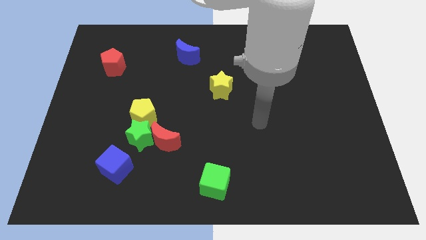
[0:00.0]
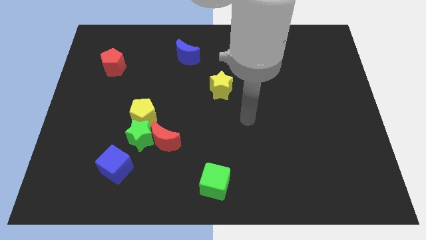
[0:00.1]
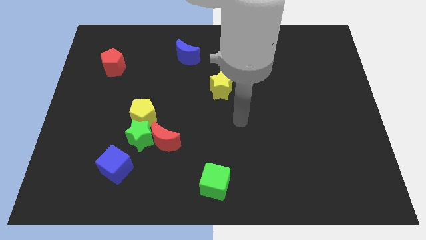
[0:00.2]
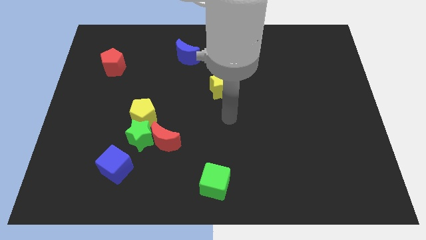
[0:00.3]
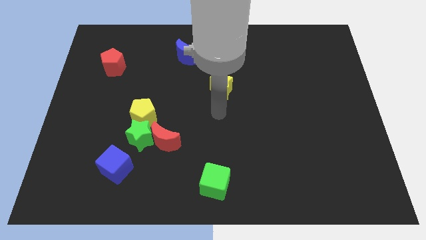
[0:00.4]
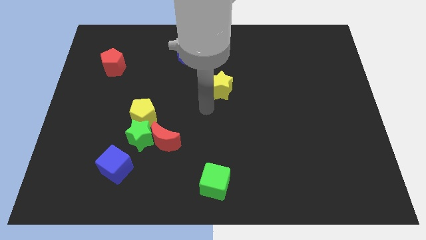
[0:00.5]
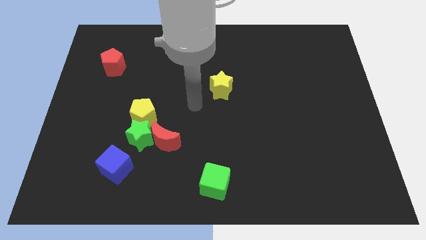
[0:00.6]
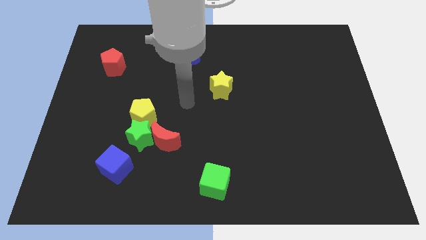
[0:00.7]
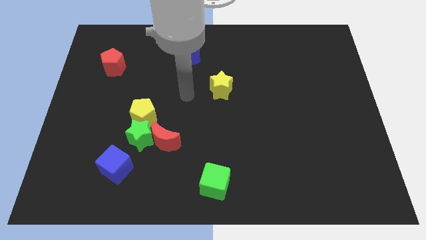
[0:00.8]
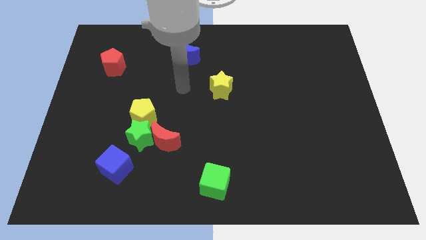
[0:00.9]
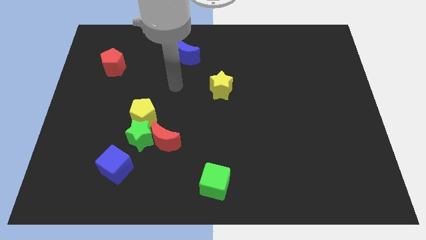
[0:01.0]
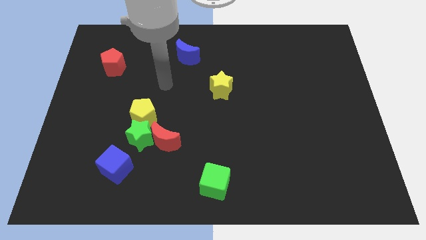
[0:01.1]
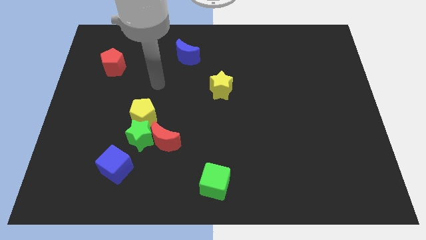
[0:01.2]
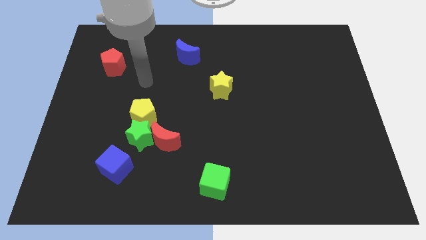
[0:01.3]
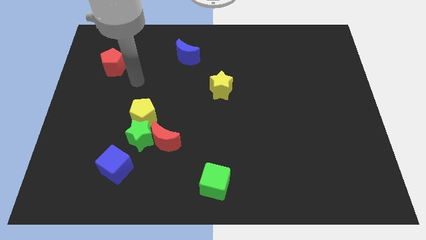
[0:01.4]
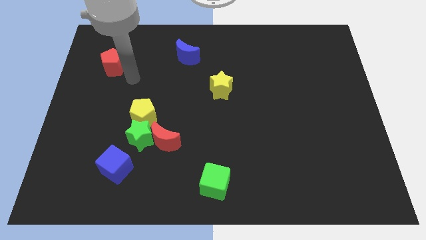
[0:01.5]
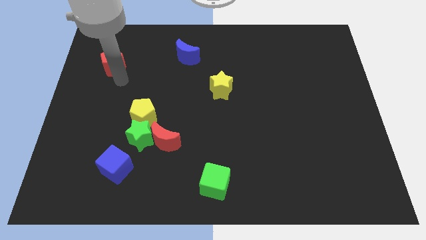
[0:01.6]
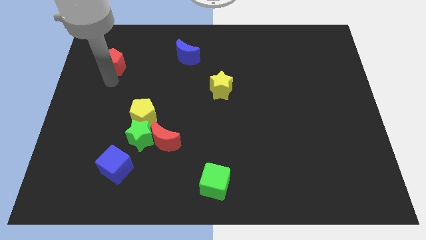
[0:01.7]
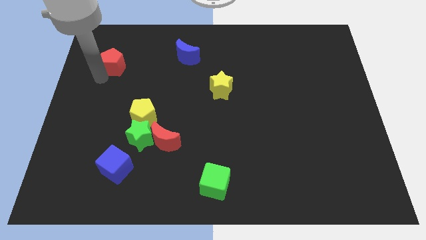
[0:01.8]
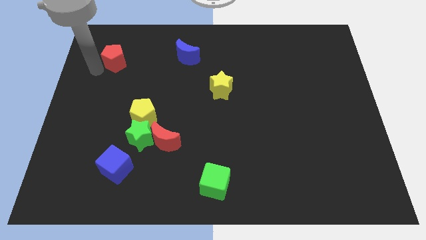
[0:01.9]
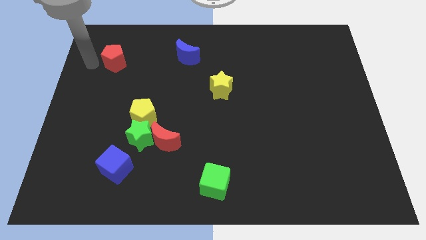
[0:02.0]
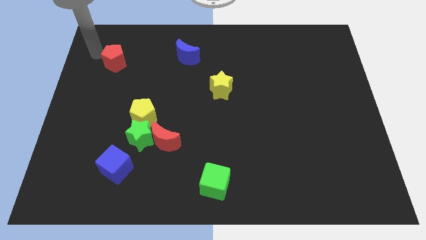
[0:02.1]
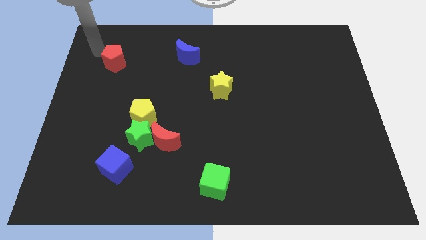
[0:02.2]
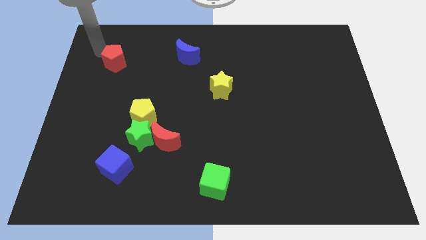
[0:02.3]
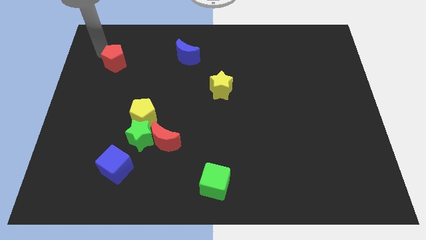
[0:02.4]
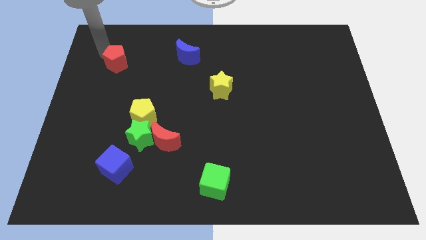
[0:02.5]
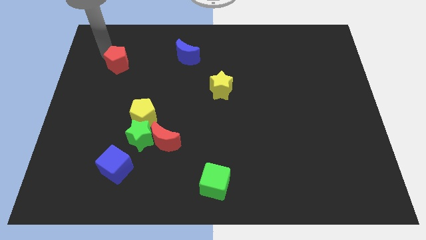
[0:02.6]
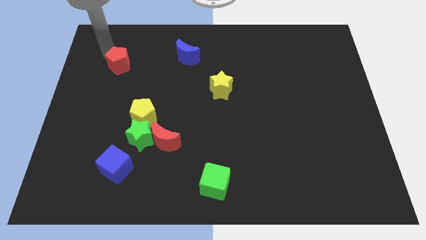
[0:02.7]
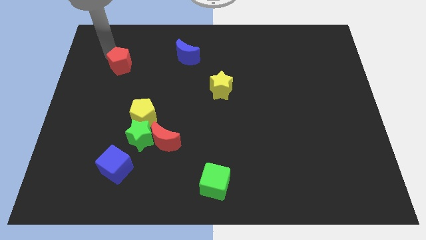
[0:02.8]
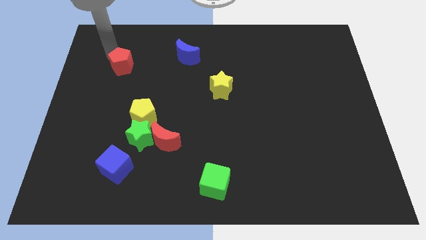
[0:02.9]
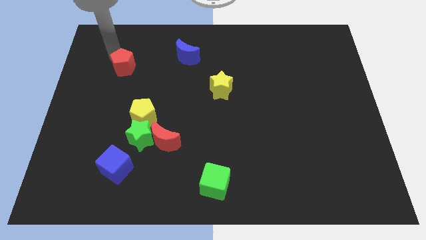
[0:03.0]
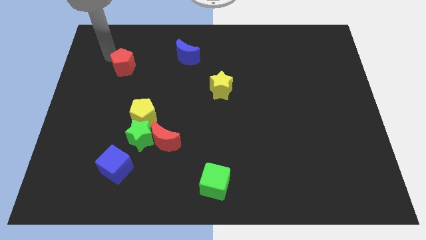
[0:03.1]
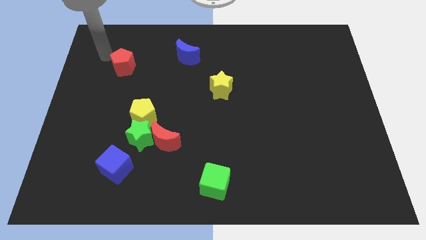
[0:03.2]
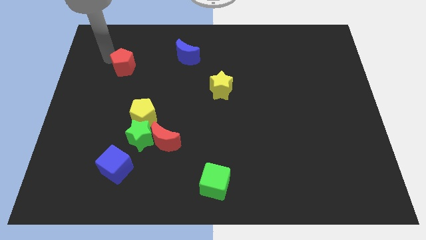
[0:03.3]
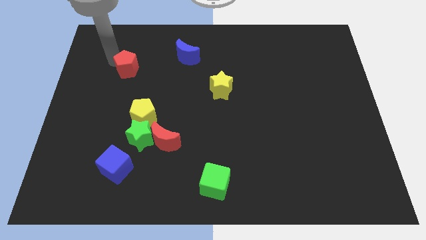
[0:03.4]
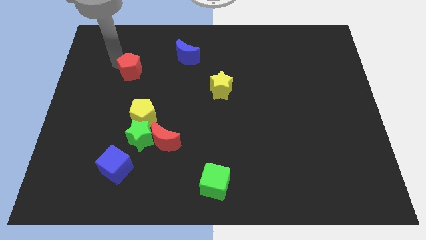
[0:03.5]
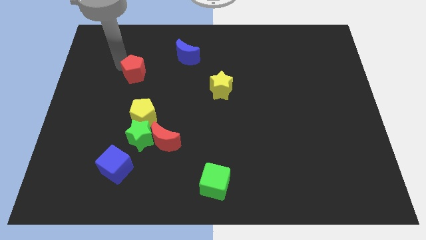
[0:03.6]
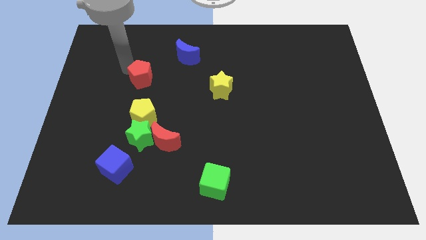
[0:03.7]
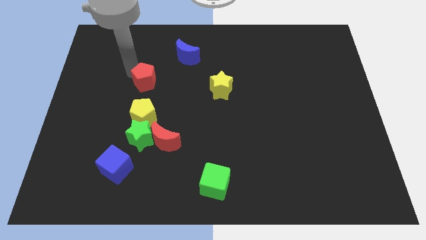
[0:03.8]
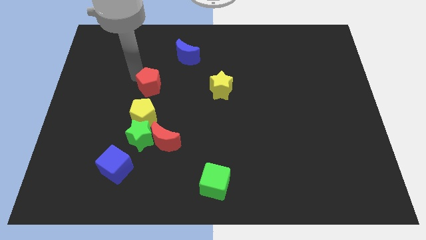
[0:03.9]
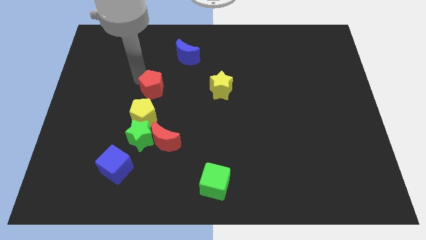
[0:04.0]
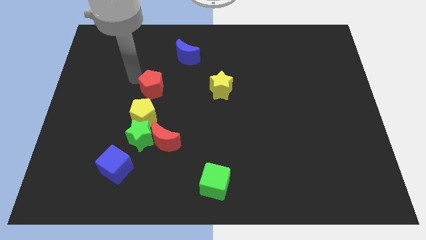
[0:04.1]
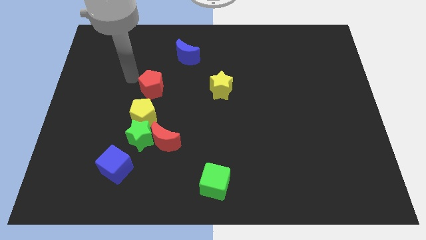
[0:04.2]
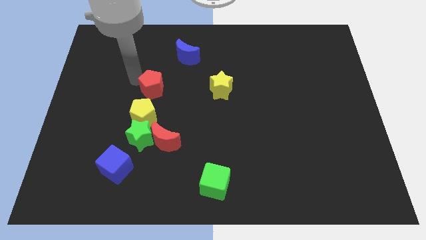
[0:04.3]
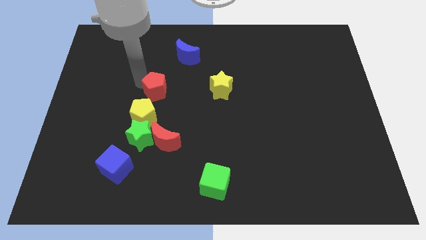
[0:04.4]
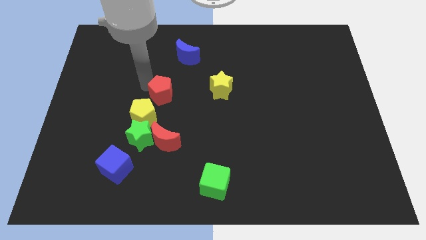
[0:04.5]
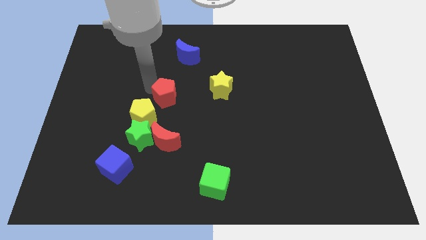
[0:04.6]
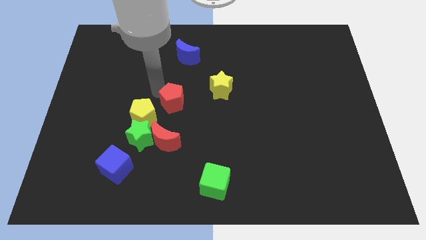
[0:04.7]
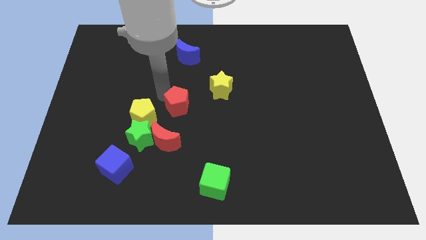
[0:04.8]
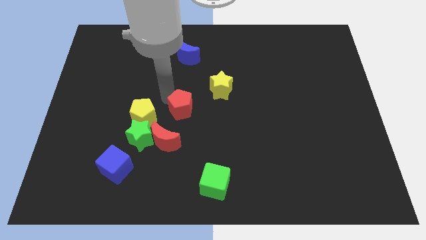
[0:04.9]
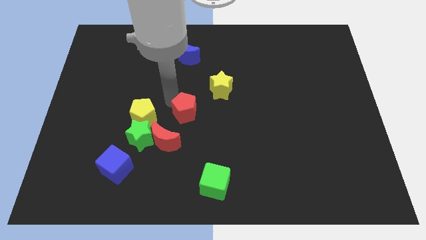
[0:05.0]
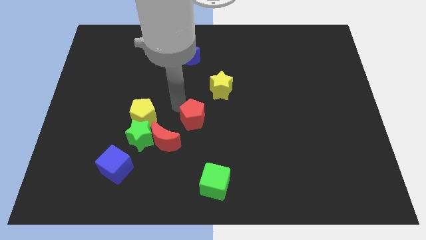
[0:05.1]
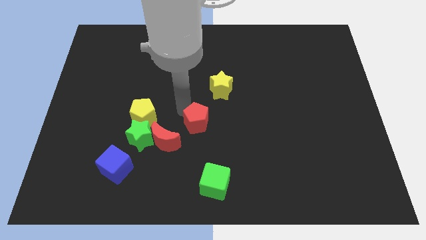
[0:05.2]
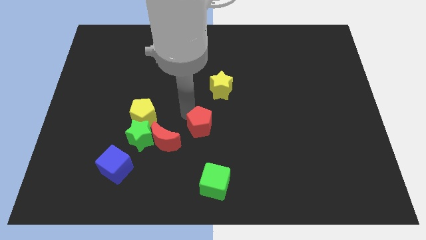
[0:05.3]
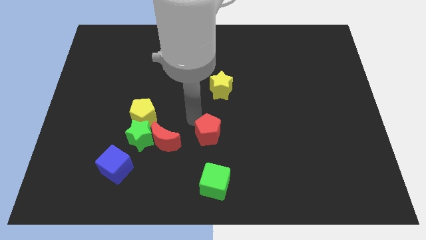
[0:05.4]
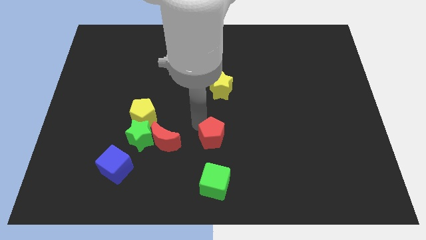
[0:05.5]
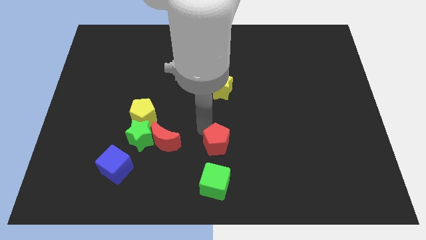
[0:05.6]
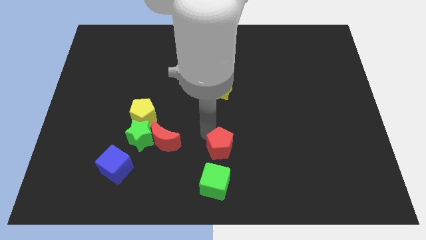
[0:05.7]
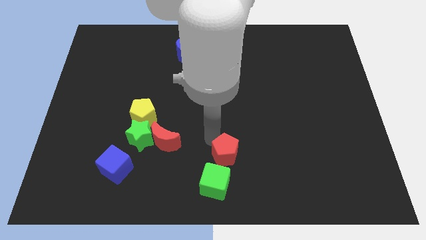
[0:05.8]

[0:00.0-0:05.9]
push the red pentagon to the top right side of the green cube

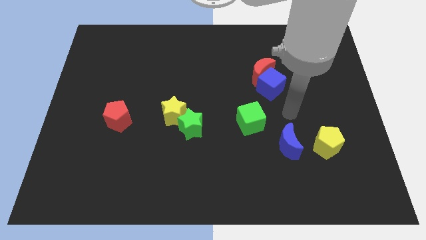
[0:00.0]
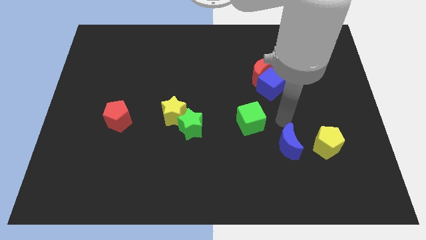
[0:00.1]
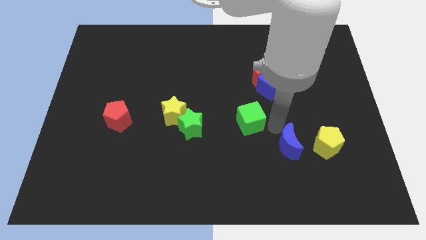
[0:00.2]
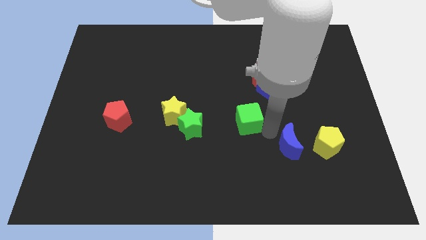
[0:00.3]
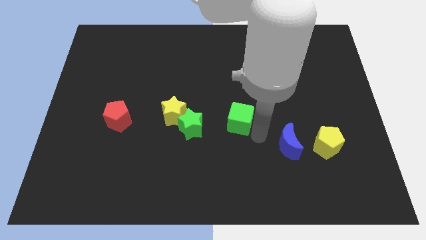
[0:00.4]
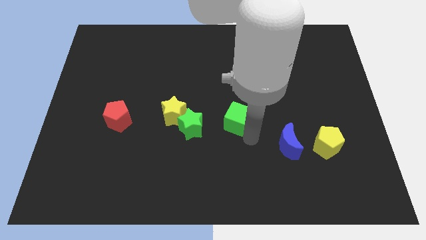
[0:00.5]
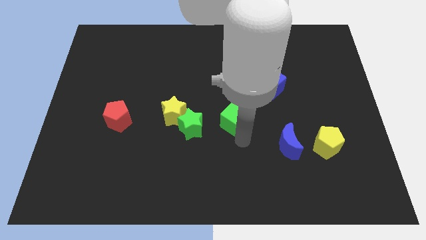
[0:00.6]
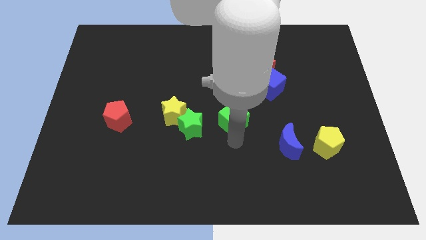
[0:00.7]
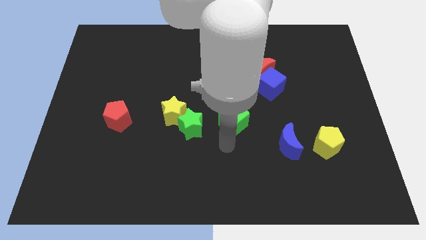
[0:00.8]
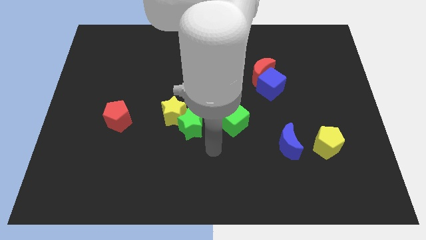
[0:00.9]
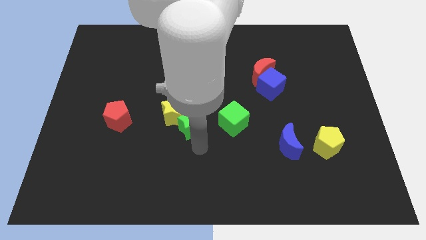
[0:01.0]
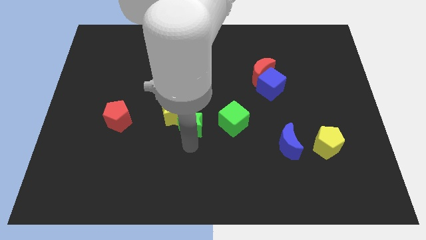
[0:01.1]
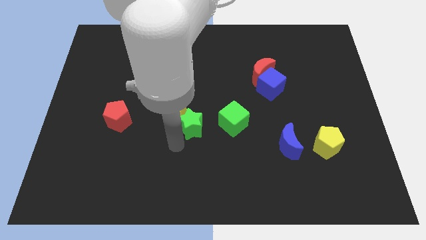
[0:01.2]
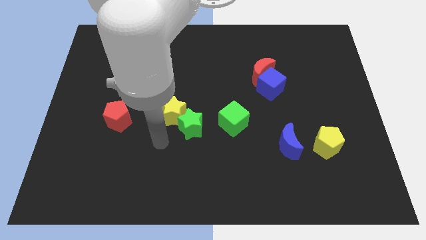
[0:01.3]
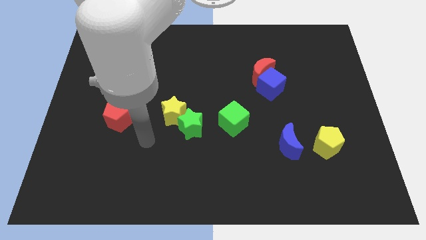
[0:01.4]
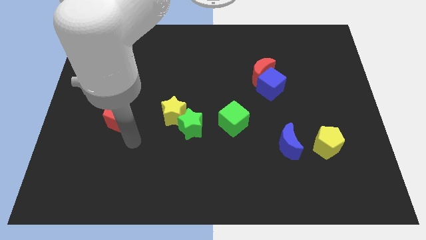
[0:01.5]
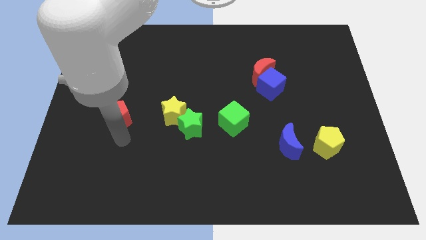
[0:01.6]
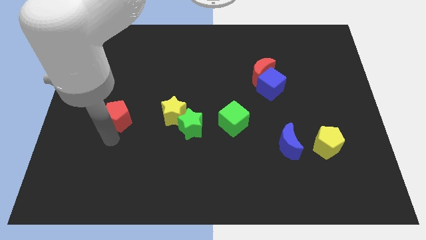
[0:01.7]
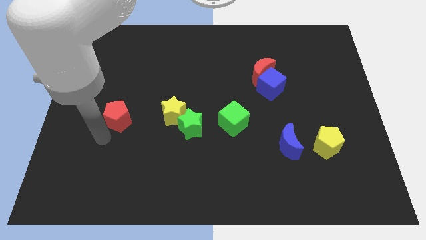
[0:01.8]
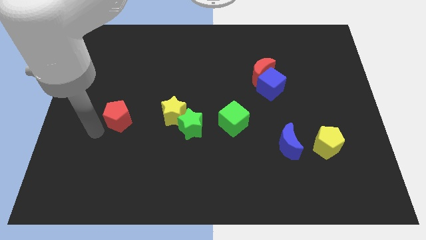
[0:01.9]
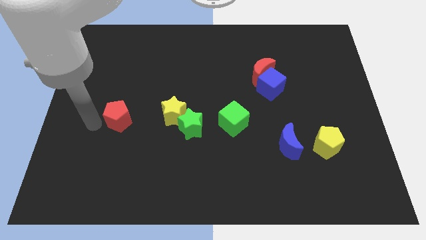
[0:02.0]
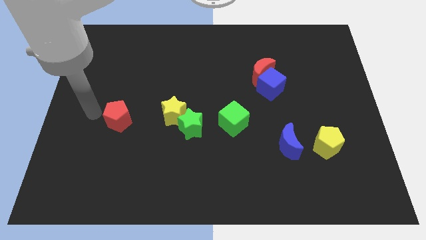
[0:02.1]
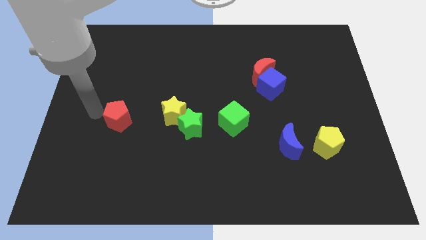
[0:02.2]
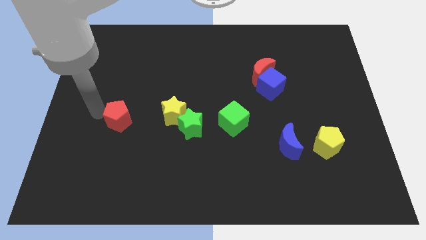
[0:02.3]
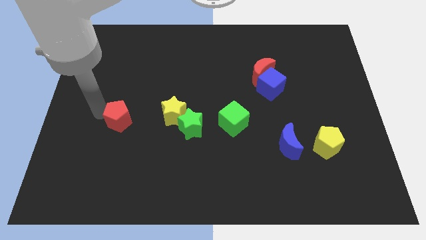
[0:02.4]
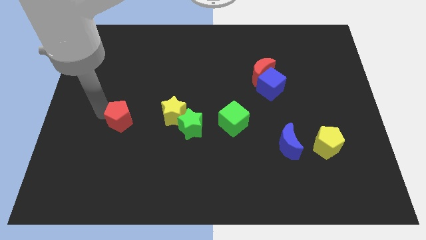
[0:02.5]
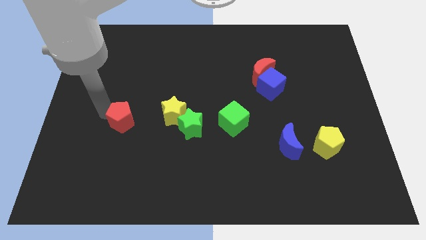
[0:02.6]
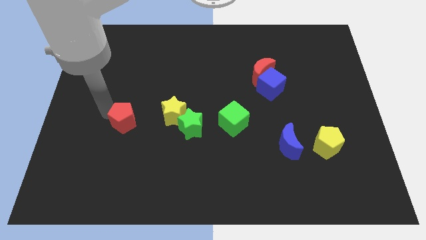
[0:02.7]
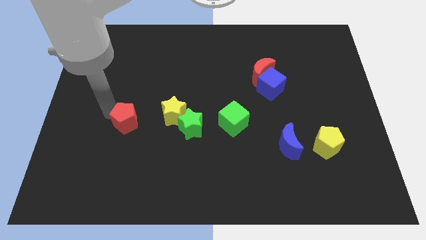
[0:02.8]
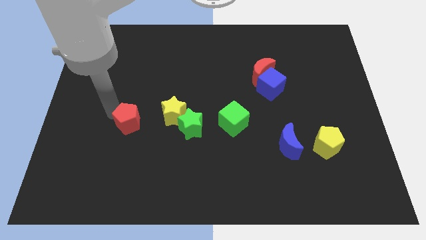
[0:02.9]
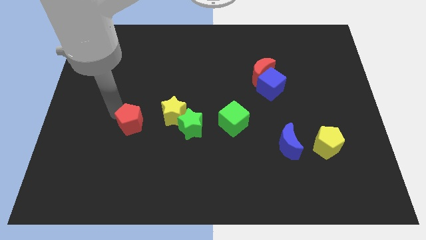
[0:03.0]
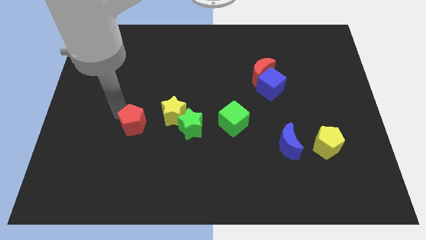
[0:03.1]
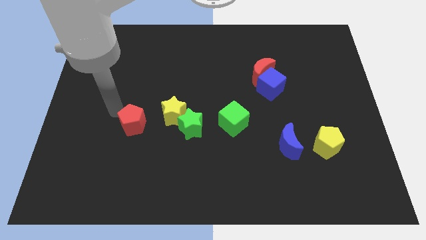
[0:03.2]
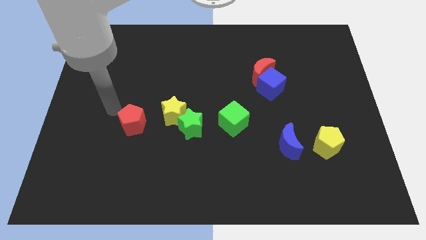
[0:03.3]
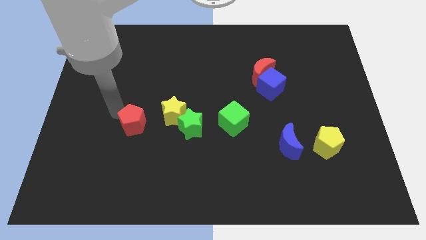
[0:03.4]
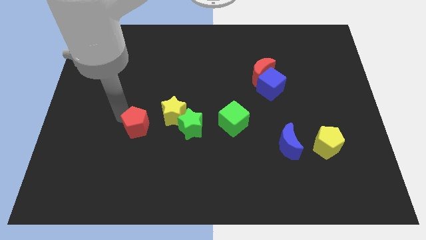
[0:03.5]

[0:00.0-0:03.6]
move the red pentagon to the bottom left of the yellow star
